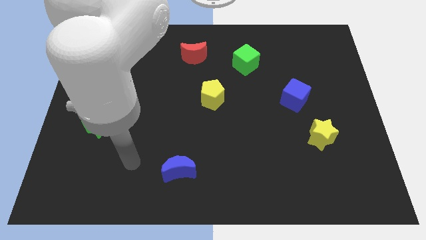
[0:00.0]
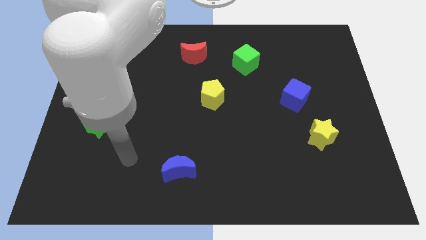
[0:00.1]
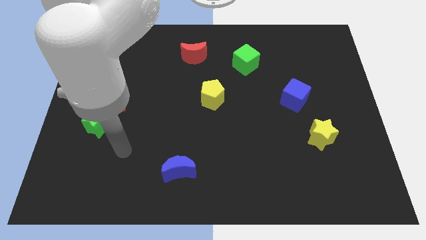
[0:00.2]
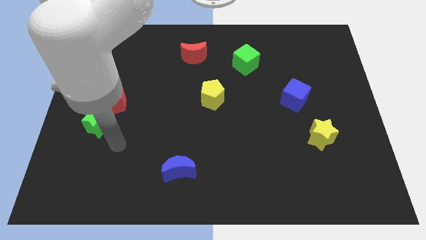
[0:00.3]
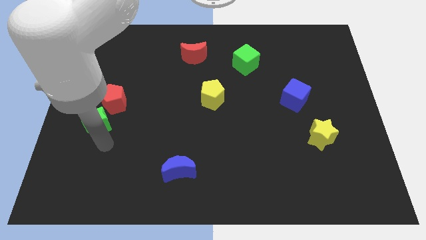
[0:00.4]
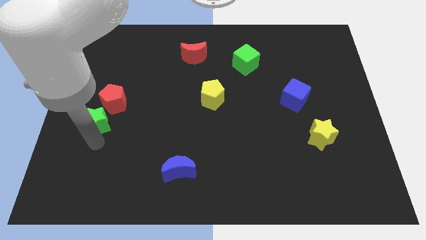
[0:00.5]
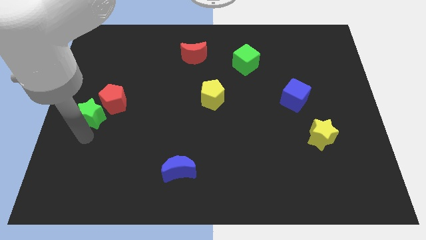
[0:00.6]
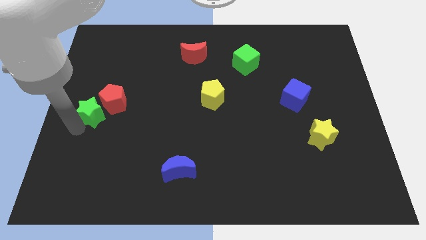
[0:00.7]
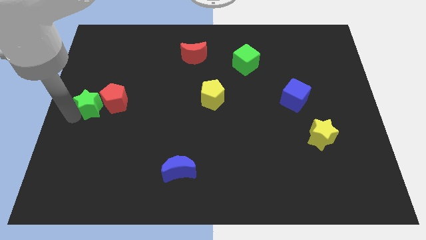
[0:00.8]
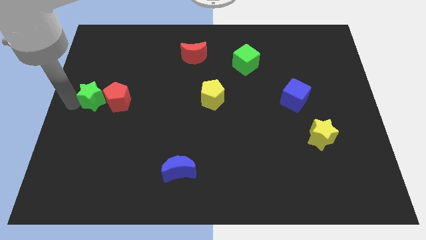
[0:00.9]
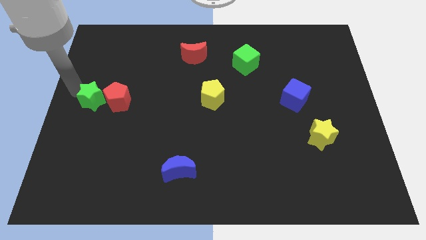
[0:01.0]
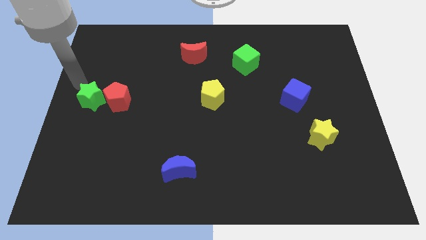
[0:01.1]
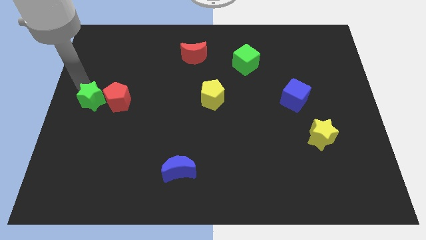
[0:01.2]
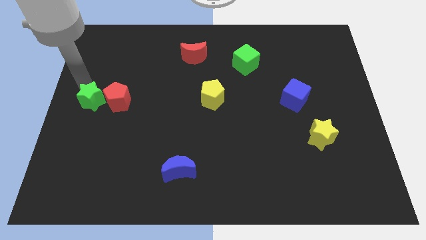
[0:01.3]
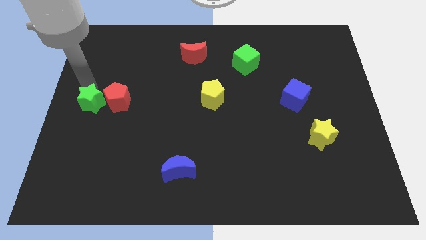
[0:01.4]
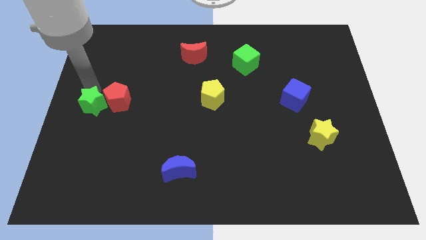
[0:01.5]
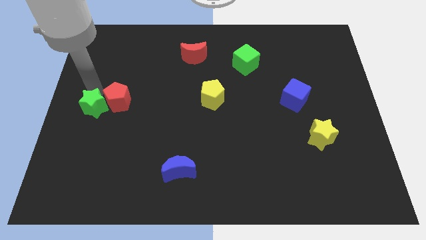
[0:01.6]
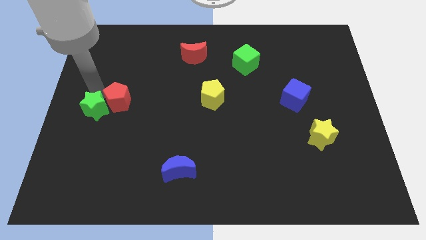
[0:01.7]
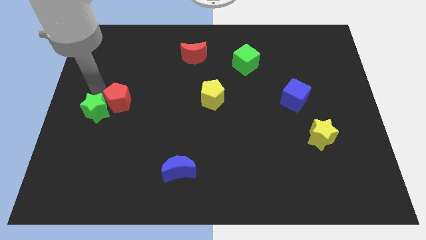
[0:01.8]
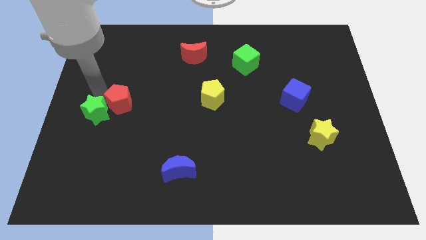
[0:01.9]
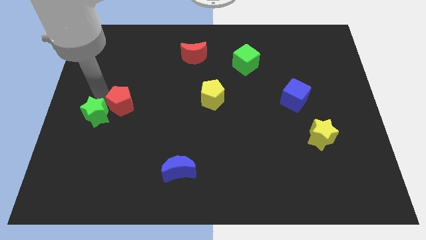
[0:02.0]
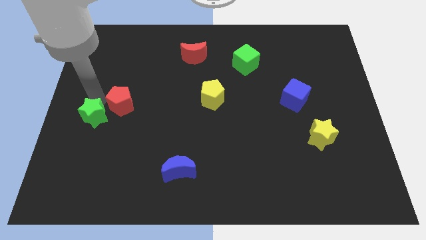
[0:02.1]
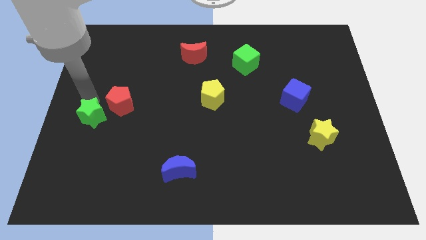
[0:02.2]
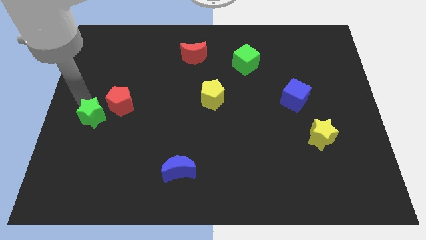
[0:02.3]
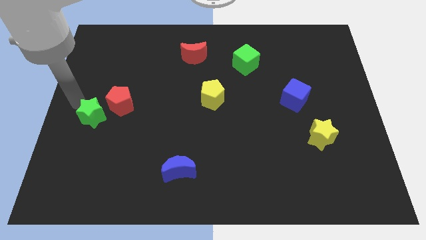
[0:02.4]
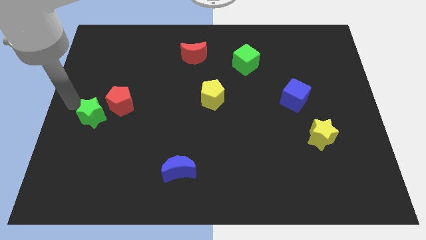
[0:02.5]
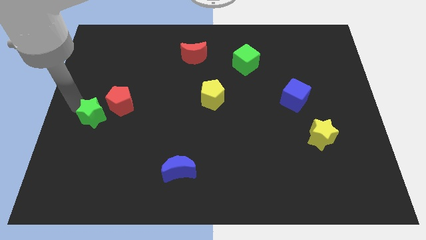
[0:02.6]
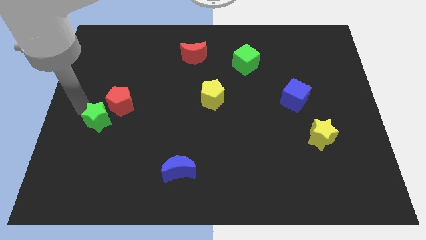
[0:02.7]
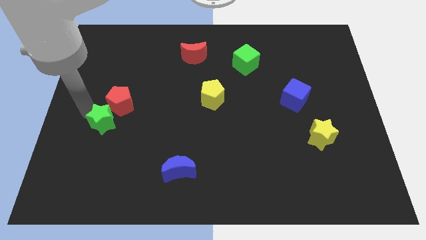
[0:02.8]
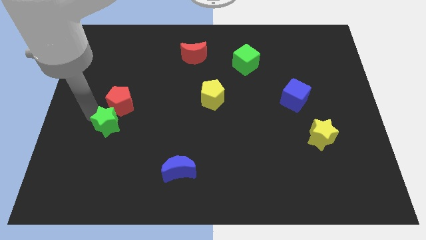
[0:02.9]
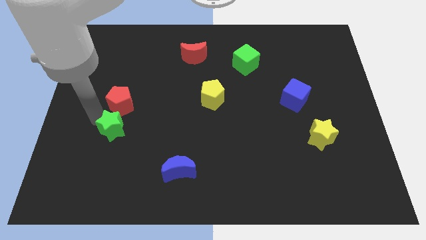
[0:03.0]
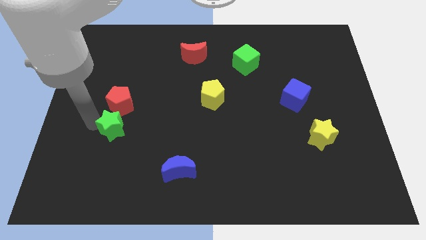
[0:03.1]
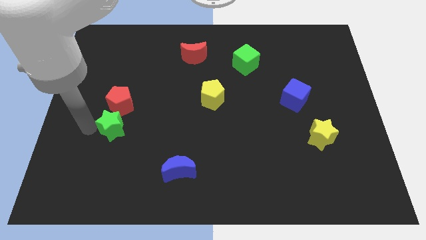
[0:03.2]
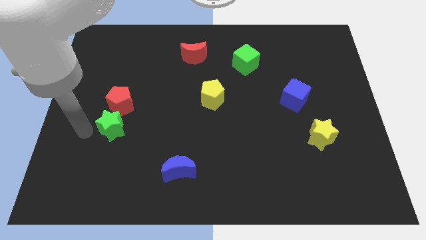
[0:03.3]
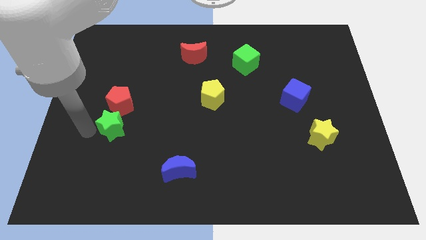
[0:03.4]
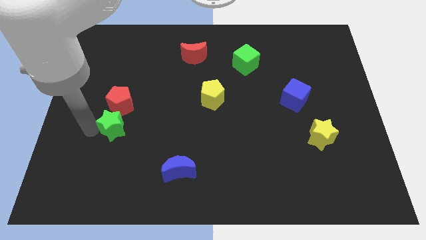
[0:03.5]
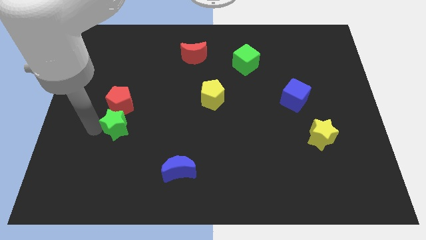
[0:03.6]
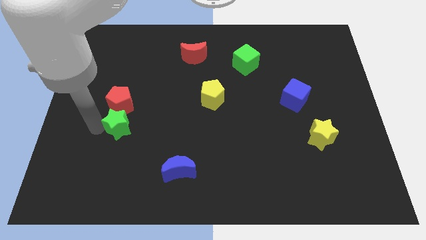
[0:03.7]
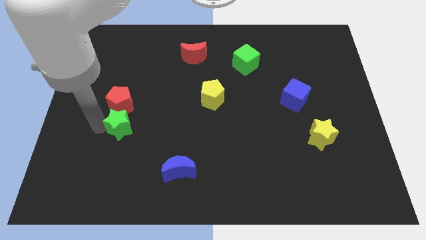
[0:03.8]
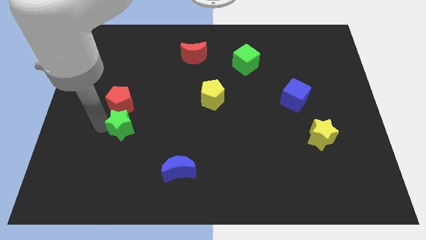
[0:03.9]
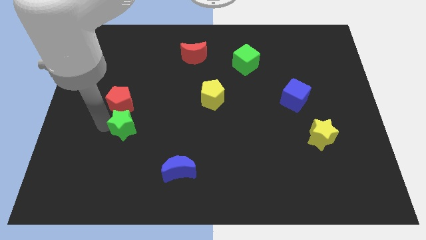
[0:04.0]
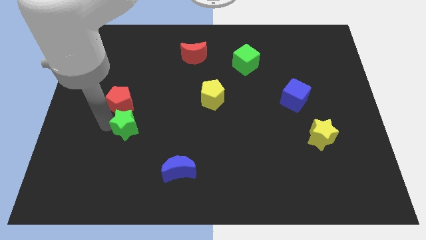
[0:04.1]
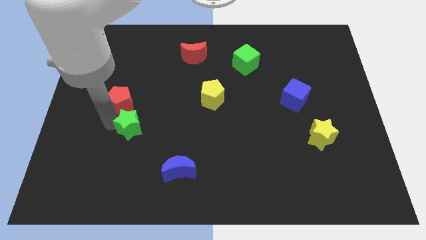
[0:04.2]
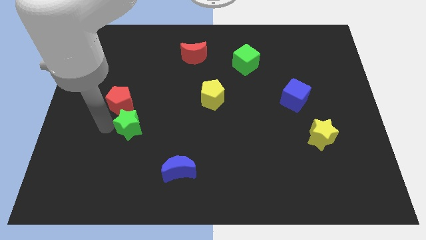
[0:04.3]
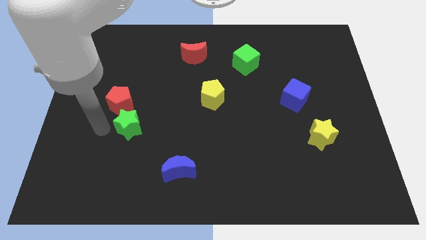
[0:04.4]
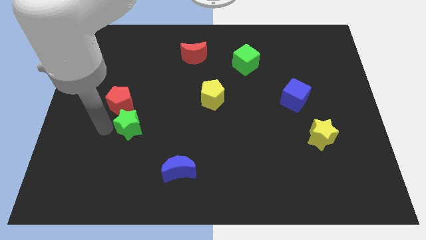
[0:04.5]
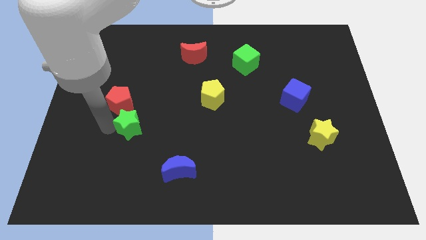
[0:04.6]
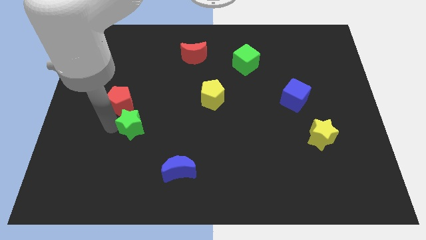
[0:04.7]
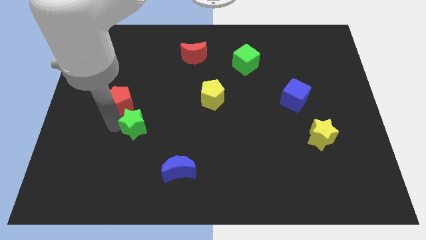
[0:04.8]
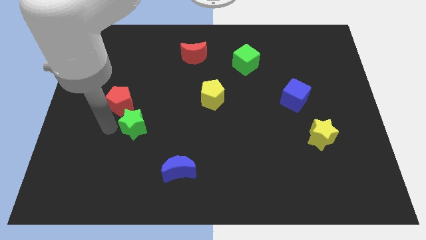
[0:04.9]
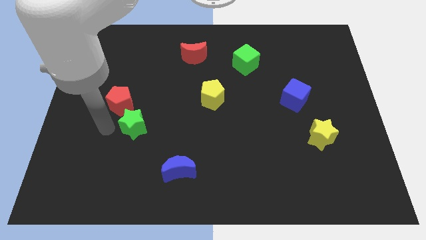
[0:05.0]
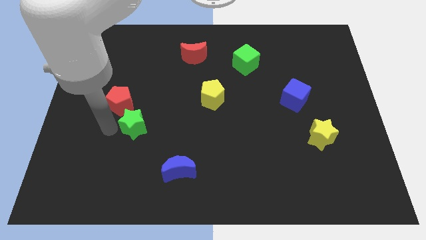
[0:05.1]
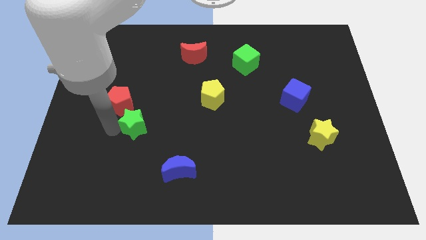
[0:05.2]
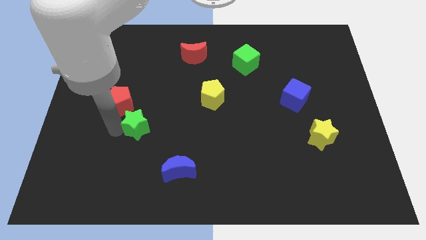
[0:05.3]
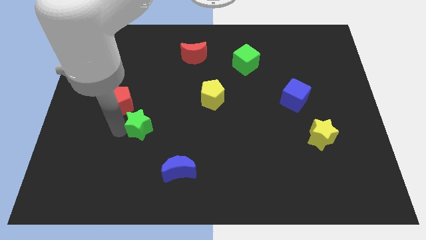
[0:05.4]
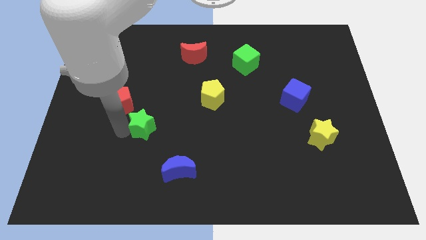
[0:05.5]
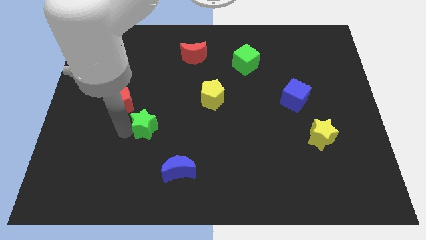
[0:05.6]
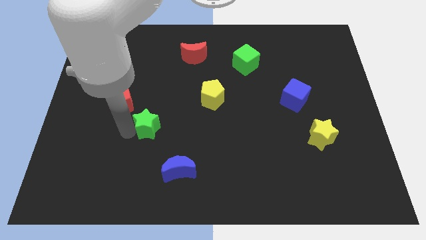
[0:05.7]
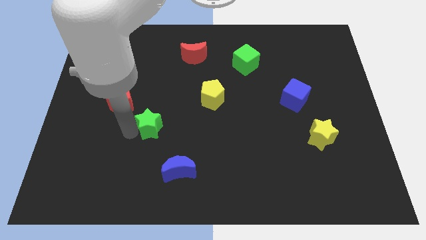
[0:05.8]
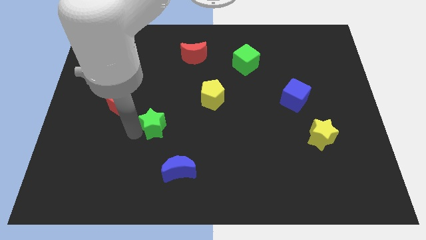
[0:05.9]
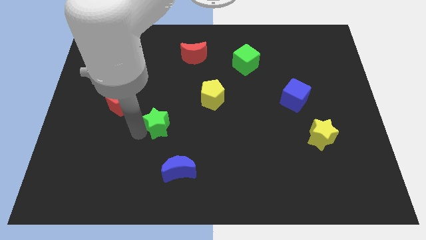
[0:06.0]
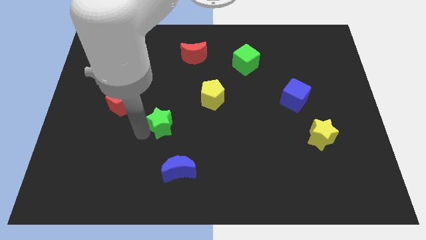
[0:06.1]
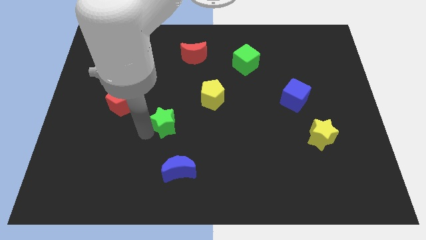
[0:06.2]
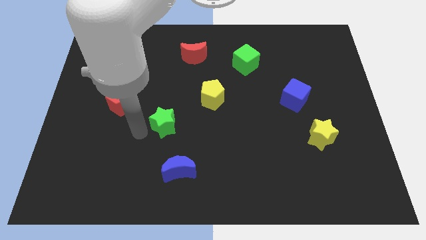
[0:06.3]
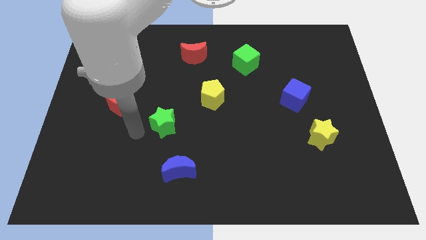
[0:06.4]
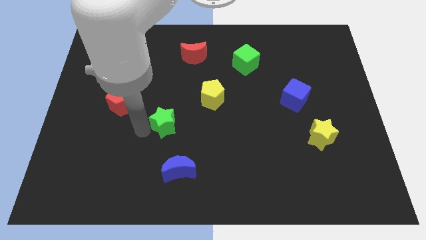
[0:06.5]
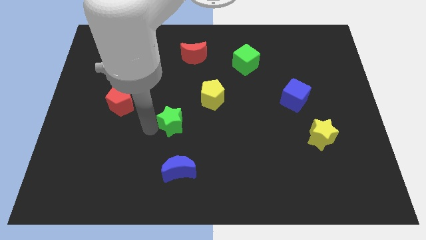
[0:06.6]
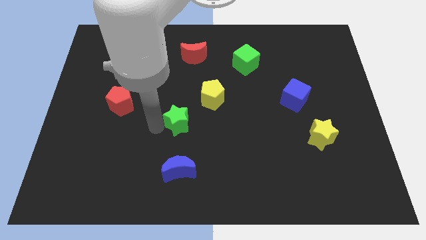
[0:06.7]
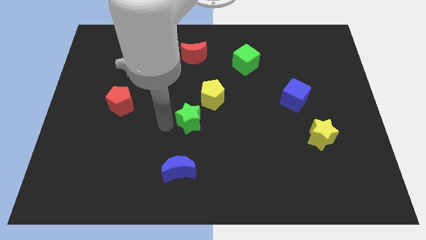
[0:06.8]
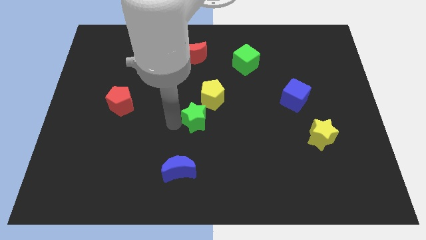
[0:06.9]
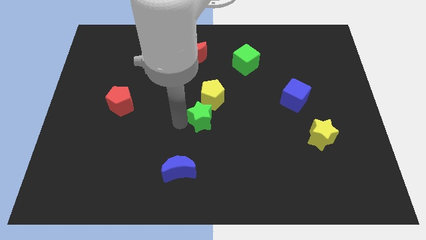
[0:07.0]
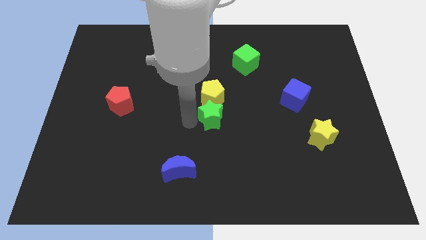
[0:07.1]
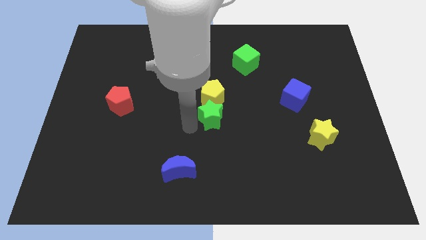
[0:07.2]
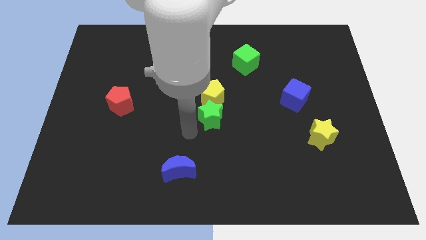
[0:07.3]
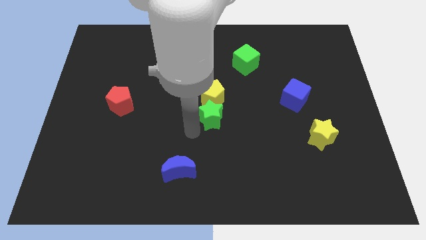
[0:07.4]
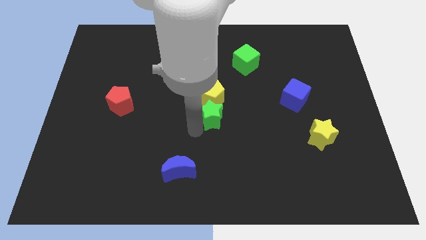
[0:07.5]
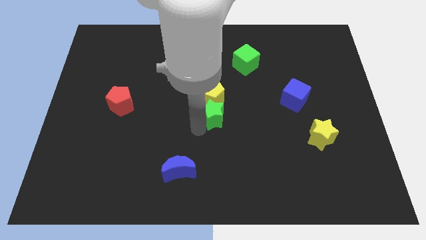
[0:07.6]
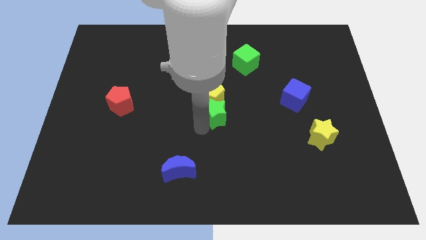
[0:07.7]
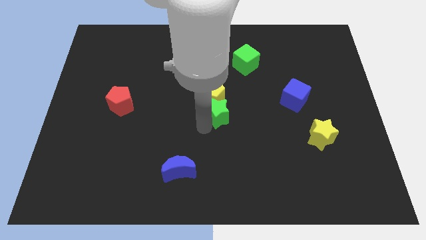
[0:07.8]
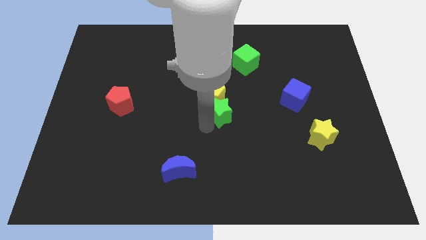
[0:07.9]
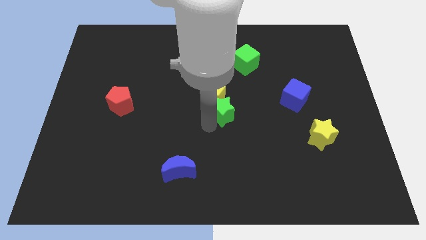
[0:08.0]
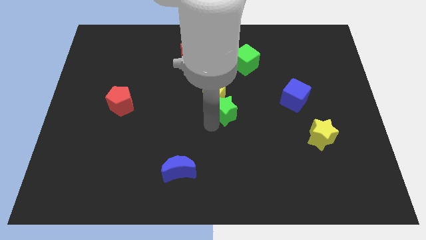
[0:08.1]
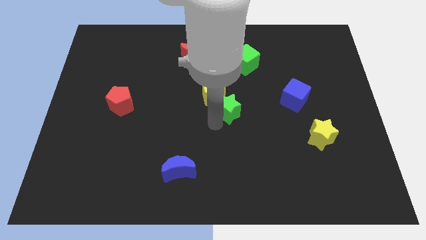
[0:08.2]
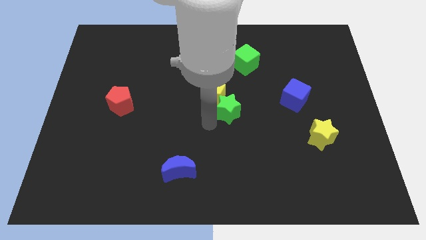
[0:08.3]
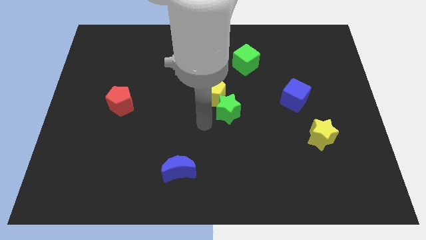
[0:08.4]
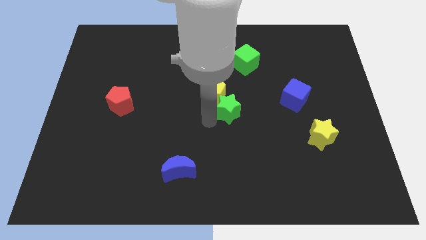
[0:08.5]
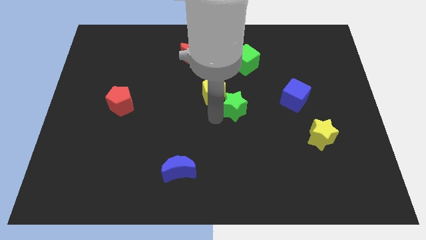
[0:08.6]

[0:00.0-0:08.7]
push the green star to the left side of the blue cube
